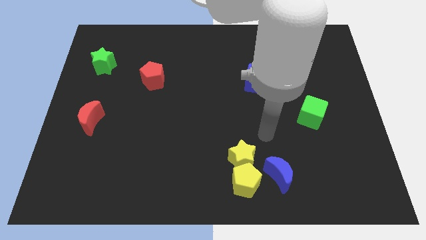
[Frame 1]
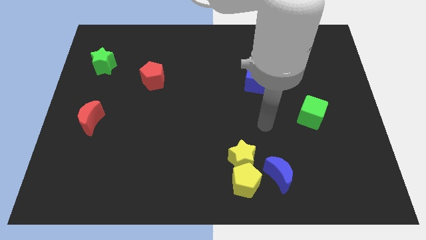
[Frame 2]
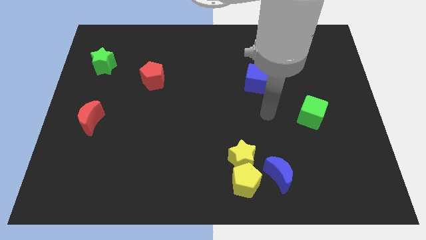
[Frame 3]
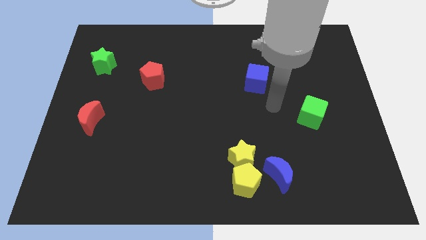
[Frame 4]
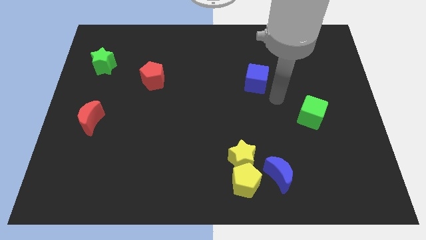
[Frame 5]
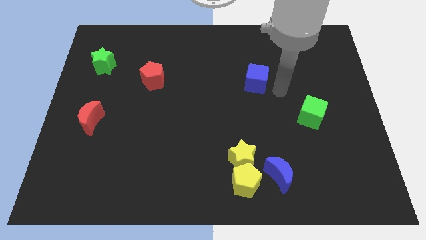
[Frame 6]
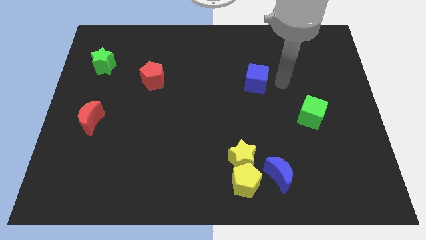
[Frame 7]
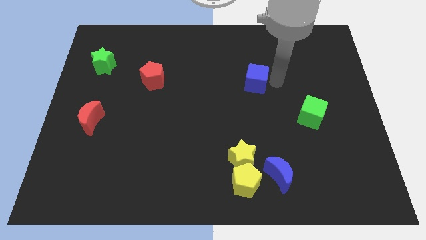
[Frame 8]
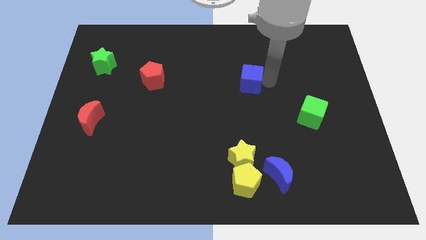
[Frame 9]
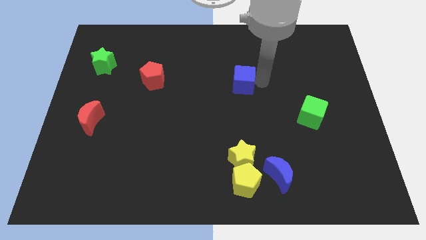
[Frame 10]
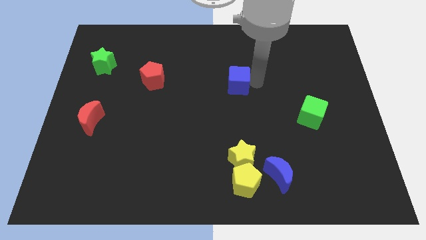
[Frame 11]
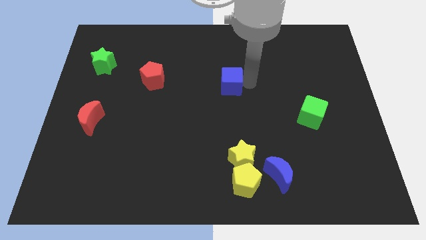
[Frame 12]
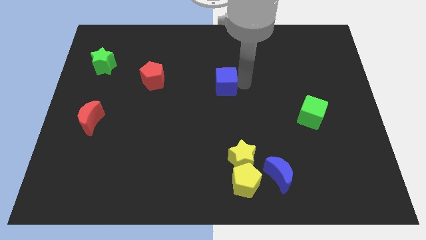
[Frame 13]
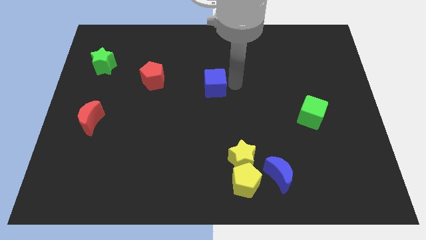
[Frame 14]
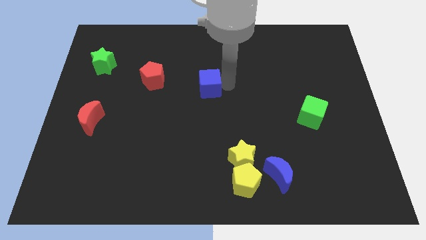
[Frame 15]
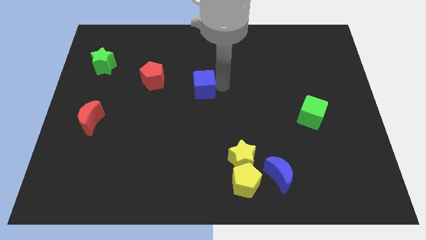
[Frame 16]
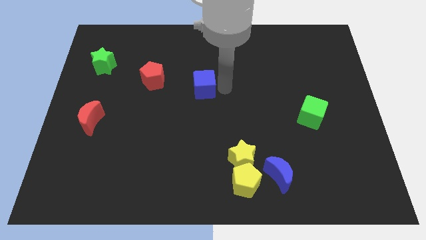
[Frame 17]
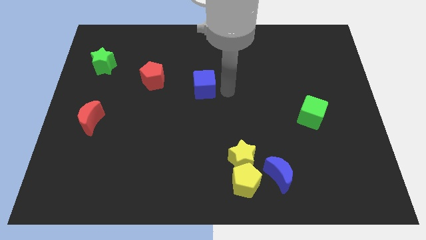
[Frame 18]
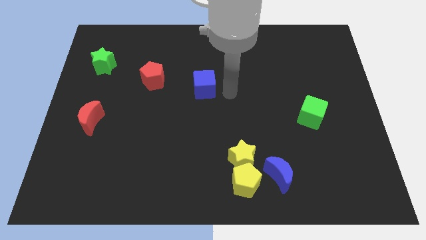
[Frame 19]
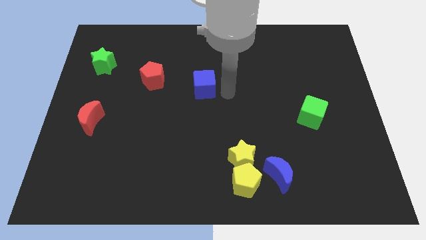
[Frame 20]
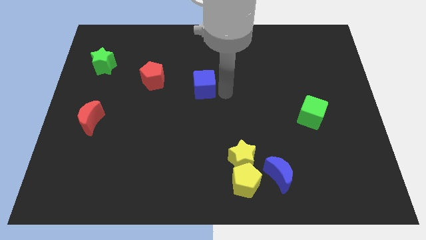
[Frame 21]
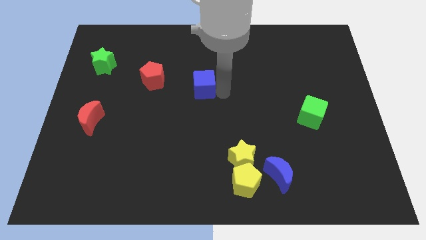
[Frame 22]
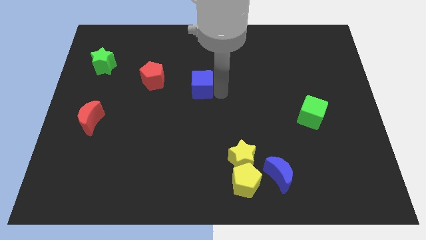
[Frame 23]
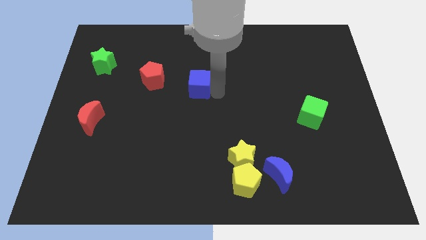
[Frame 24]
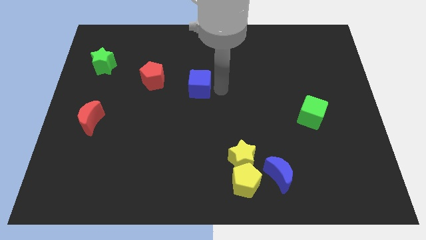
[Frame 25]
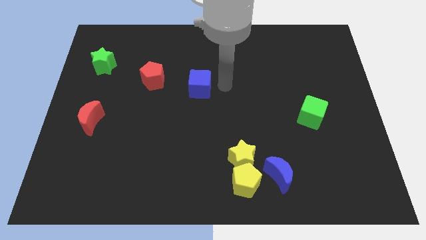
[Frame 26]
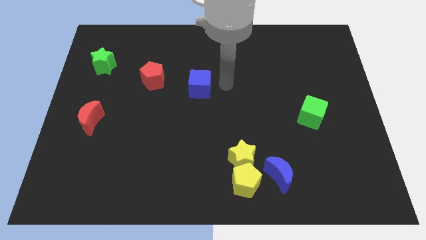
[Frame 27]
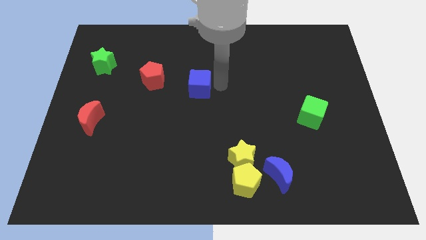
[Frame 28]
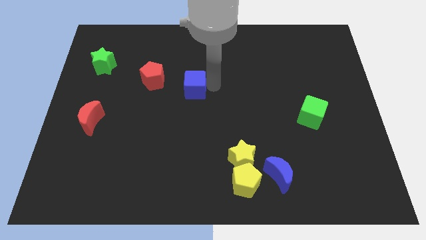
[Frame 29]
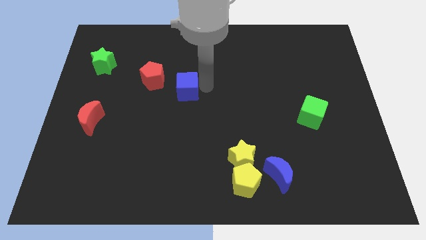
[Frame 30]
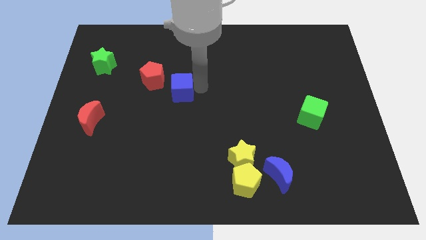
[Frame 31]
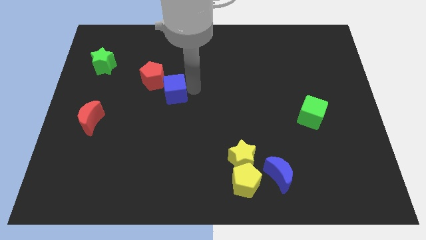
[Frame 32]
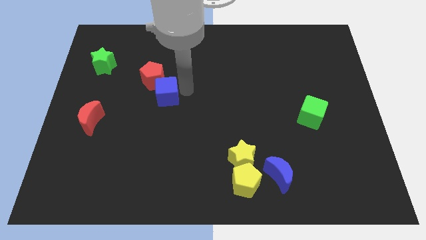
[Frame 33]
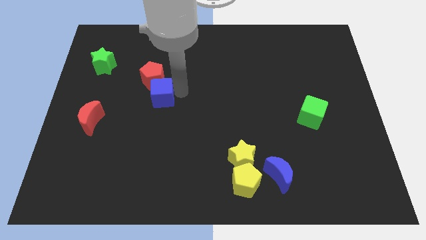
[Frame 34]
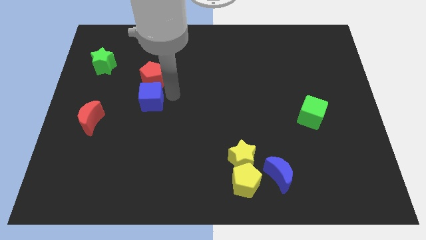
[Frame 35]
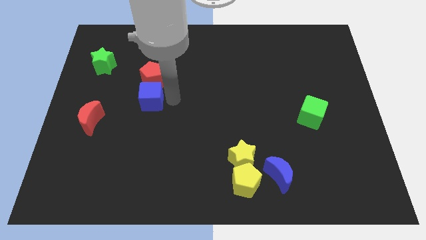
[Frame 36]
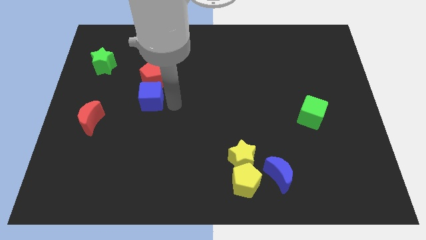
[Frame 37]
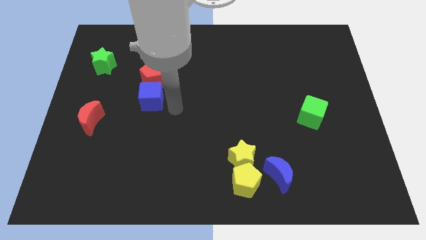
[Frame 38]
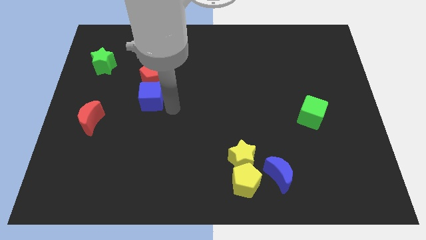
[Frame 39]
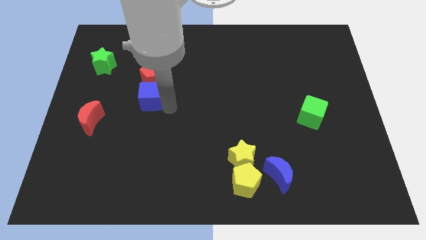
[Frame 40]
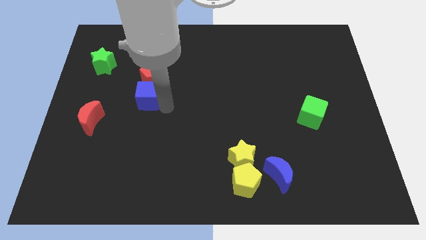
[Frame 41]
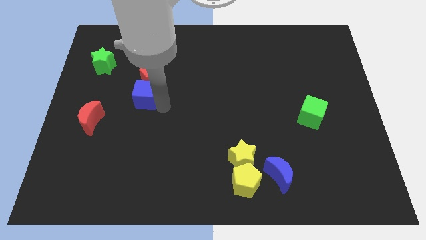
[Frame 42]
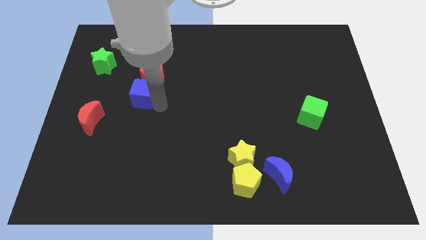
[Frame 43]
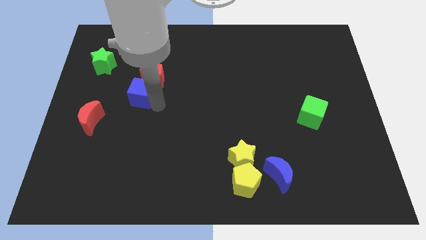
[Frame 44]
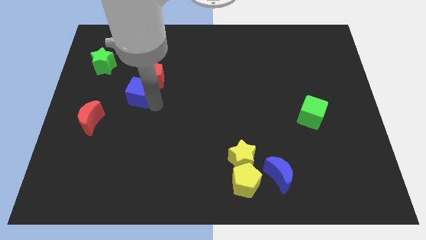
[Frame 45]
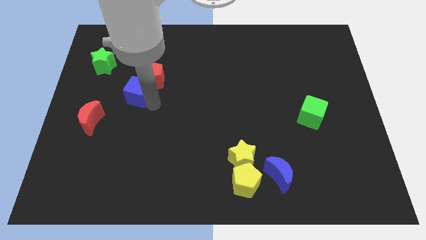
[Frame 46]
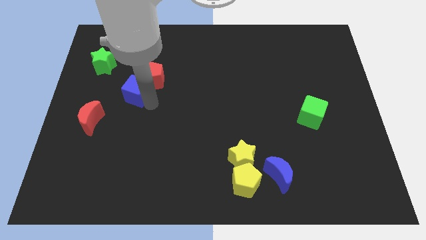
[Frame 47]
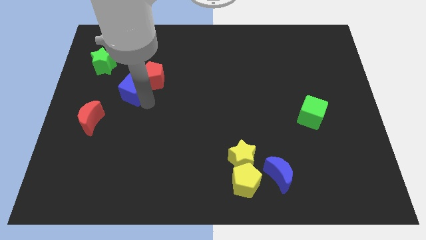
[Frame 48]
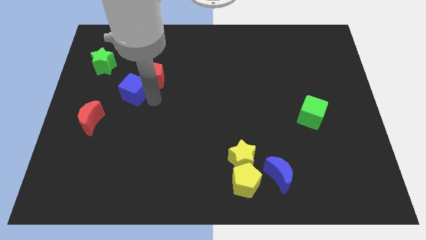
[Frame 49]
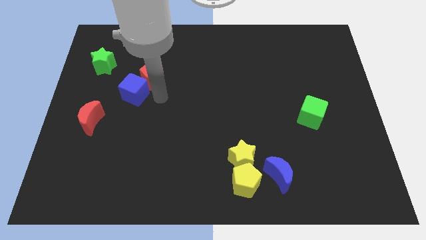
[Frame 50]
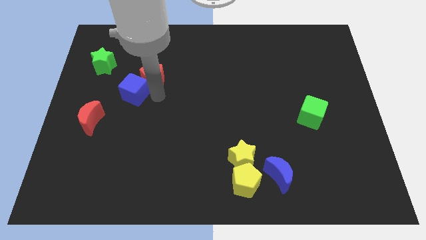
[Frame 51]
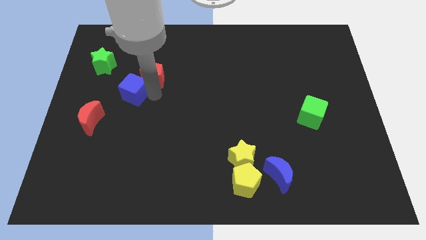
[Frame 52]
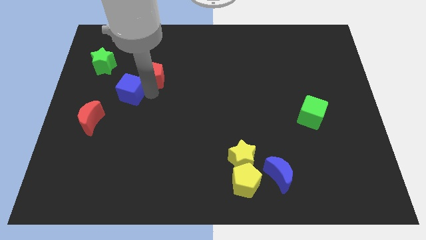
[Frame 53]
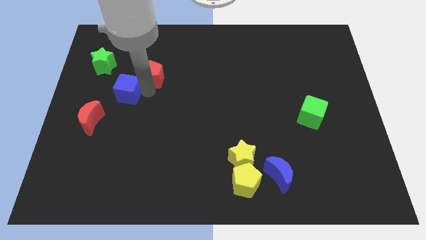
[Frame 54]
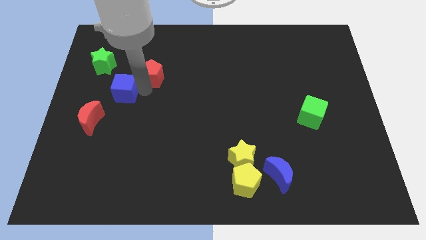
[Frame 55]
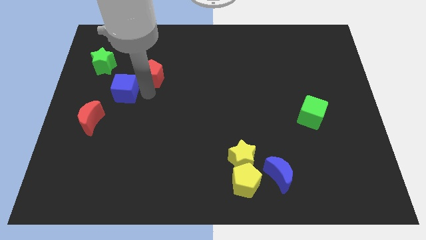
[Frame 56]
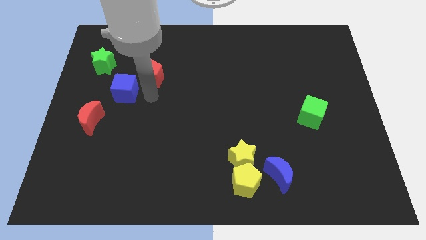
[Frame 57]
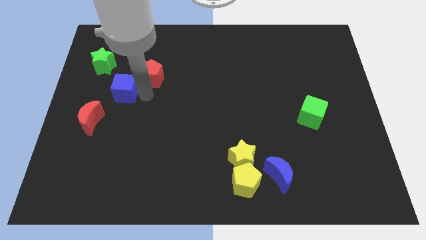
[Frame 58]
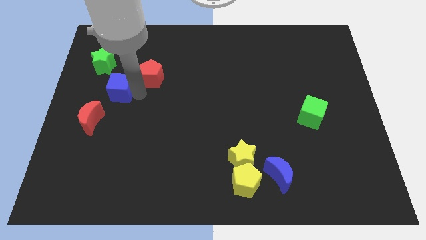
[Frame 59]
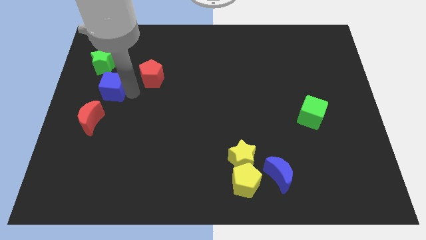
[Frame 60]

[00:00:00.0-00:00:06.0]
push the blue cube to the top side of the red moon

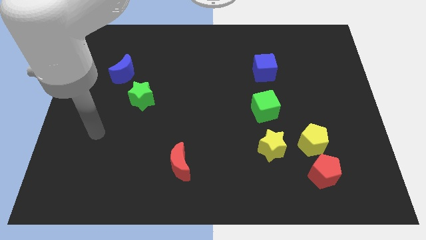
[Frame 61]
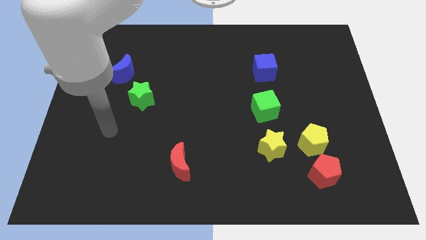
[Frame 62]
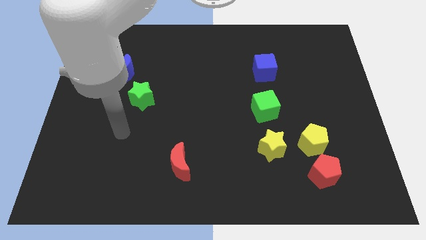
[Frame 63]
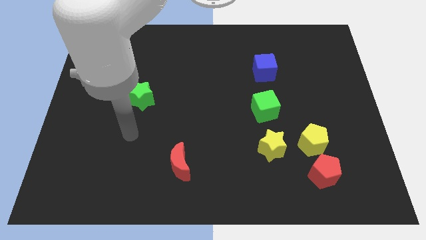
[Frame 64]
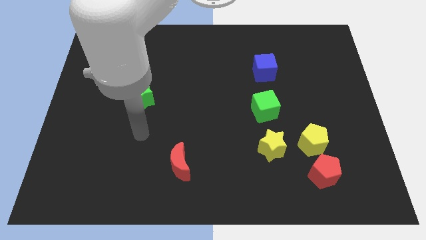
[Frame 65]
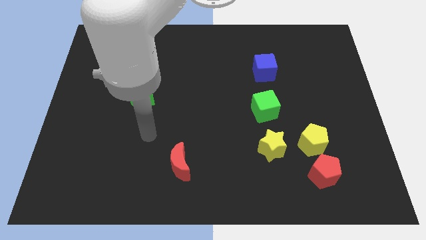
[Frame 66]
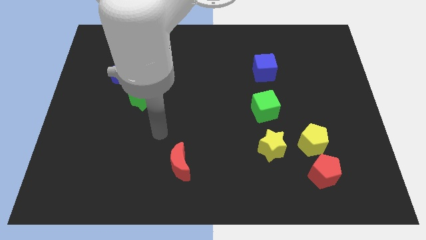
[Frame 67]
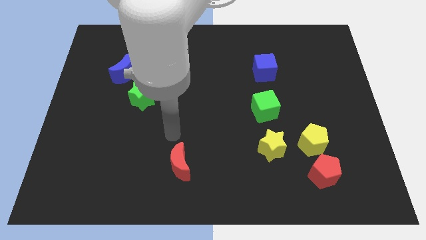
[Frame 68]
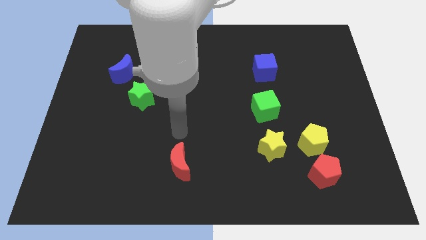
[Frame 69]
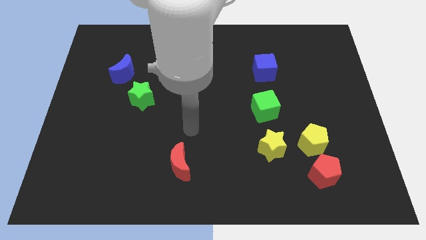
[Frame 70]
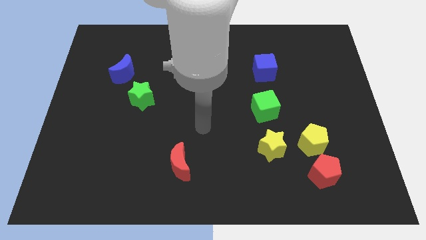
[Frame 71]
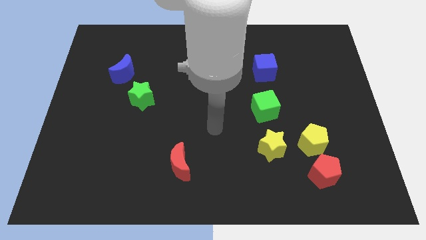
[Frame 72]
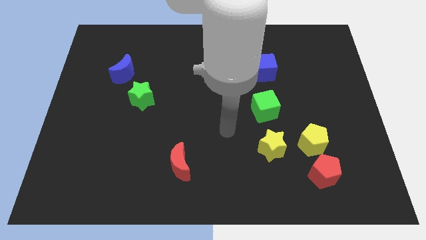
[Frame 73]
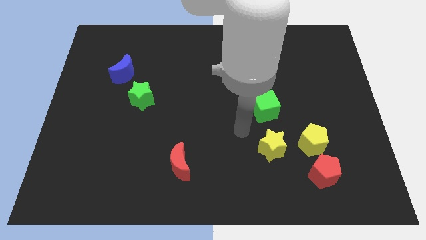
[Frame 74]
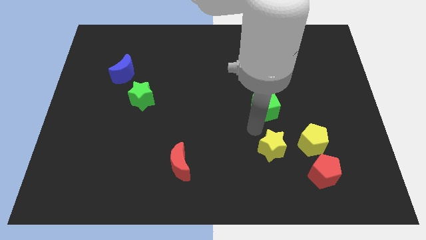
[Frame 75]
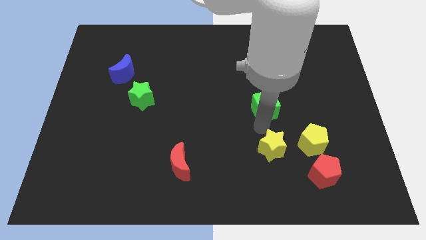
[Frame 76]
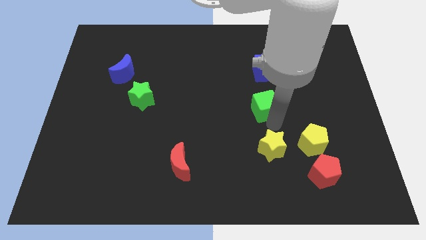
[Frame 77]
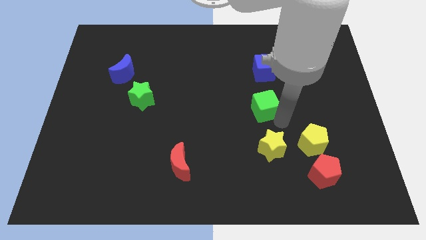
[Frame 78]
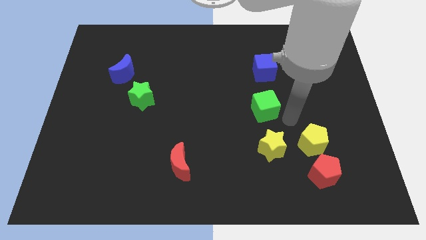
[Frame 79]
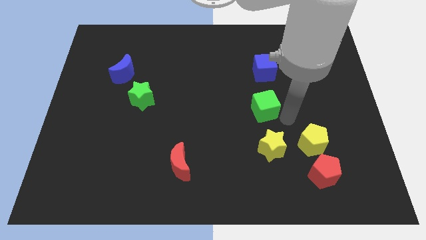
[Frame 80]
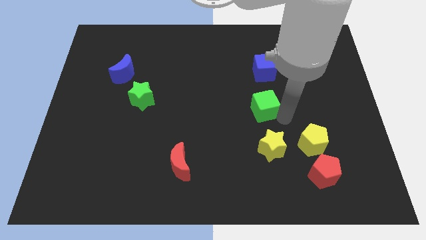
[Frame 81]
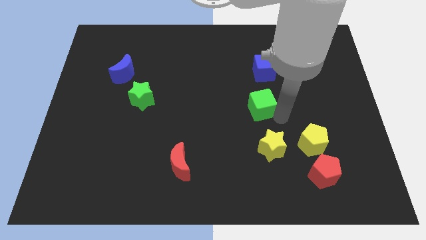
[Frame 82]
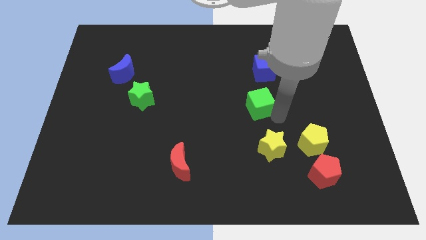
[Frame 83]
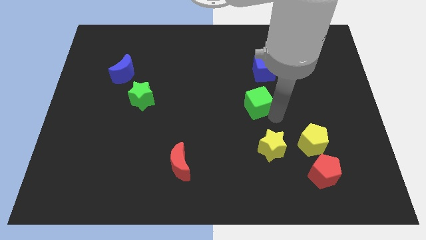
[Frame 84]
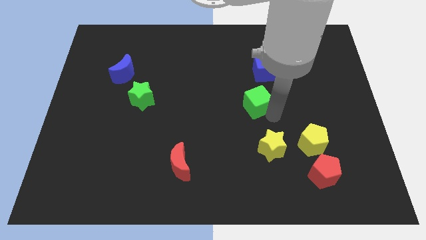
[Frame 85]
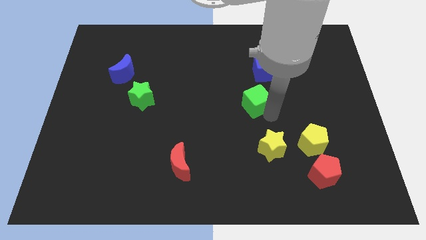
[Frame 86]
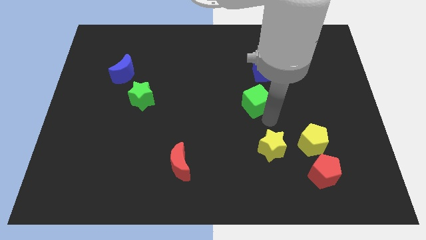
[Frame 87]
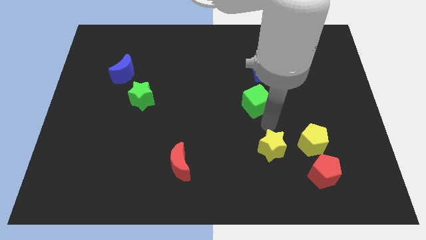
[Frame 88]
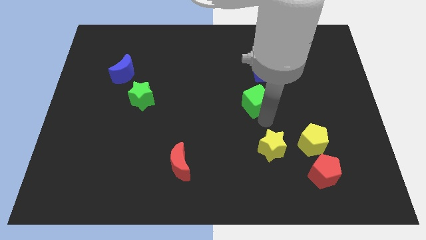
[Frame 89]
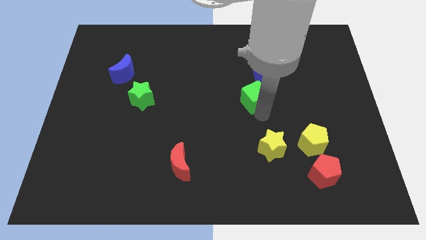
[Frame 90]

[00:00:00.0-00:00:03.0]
put the green cube to the bottom left of the blue cube
